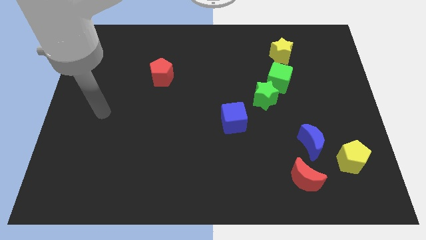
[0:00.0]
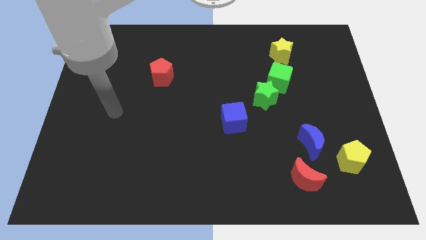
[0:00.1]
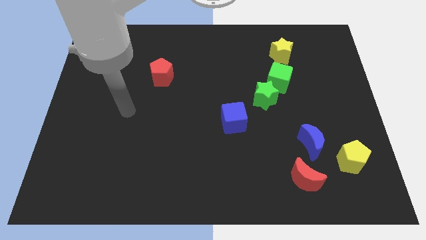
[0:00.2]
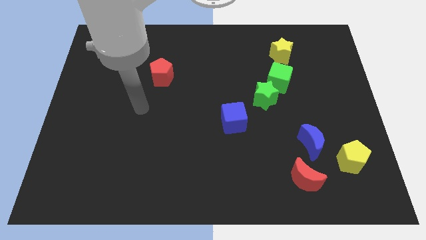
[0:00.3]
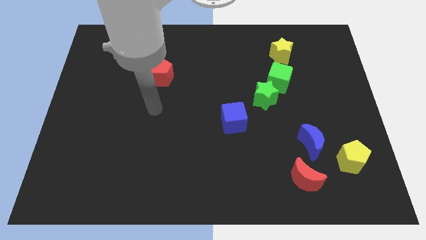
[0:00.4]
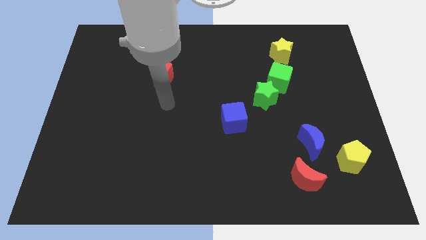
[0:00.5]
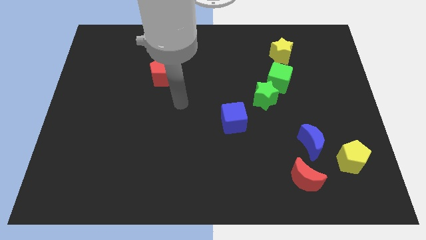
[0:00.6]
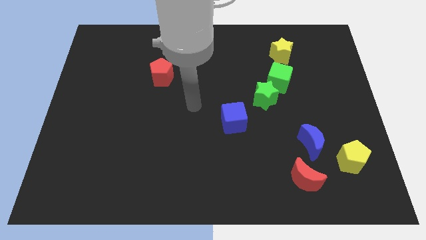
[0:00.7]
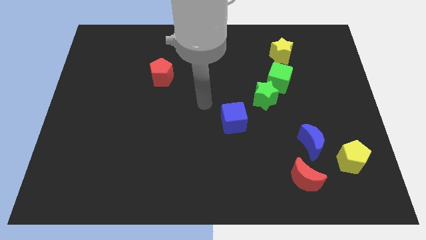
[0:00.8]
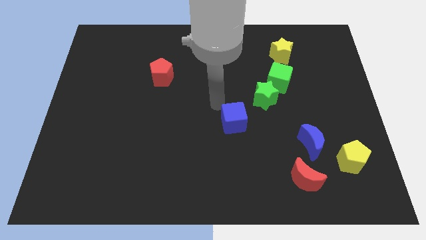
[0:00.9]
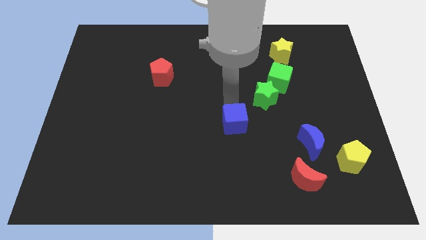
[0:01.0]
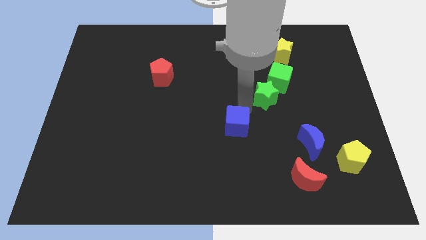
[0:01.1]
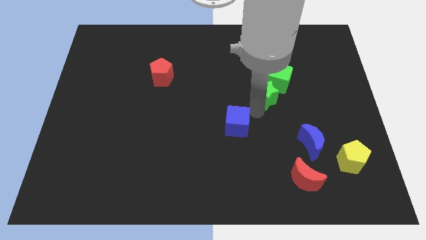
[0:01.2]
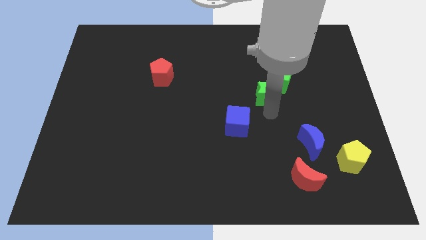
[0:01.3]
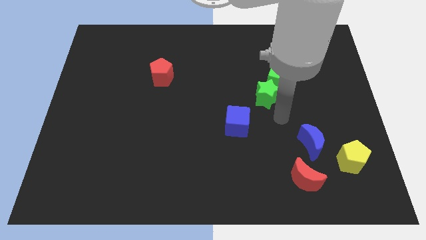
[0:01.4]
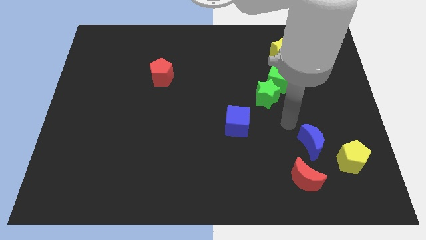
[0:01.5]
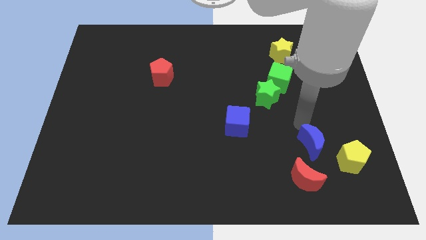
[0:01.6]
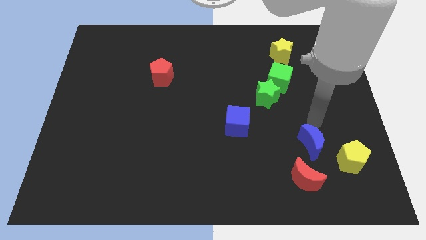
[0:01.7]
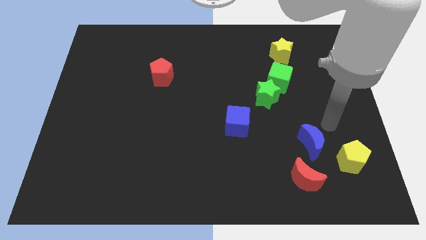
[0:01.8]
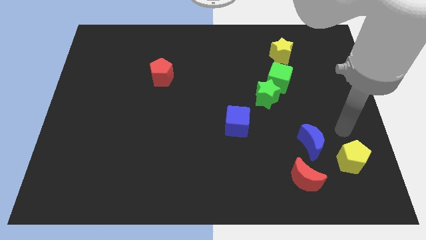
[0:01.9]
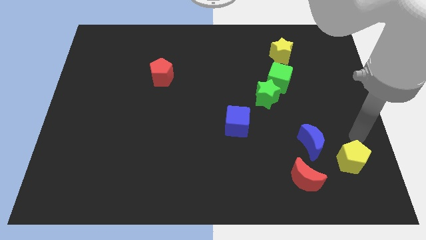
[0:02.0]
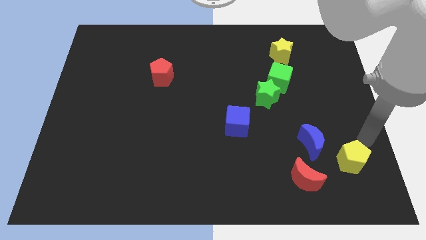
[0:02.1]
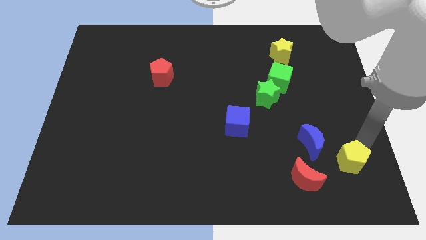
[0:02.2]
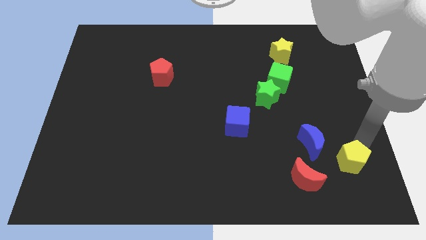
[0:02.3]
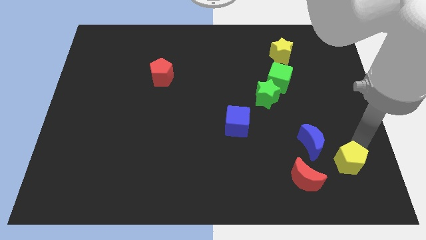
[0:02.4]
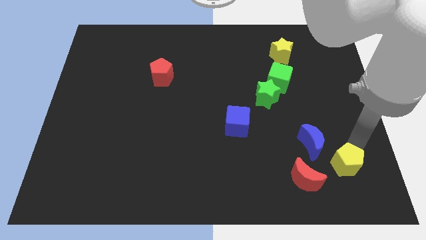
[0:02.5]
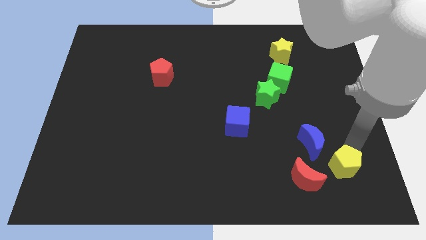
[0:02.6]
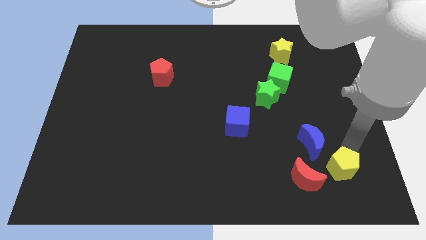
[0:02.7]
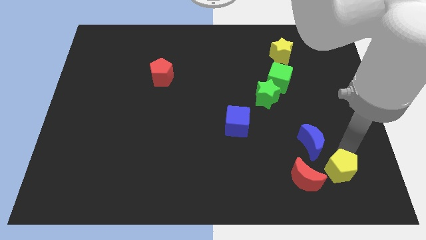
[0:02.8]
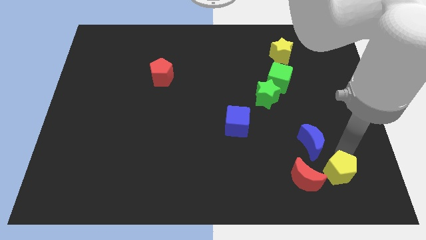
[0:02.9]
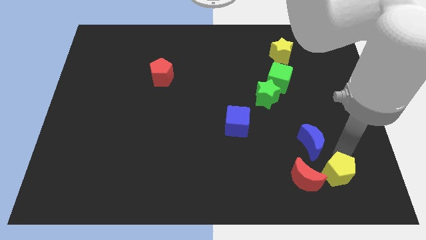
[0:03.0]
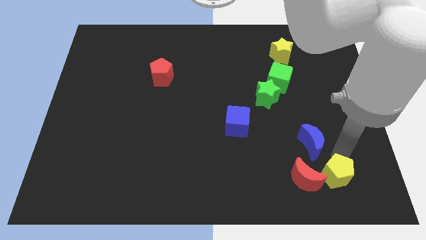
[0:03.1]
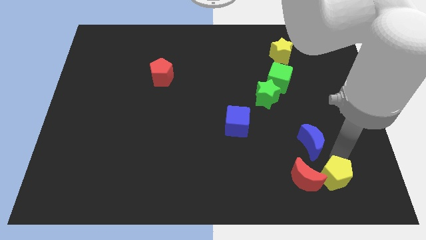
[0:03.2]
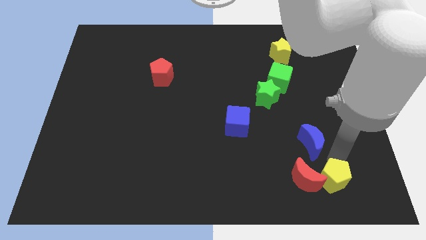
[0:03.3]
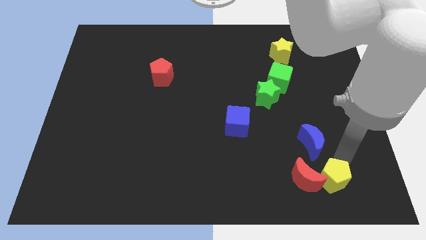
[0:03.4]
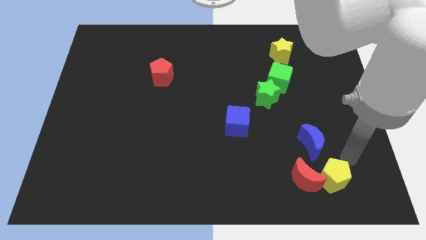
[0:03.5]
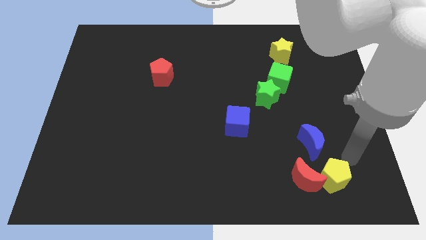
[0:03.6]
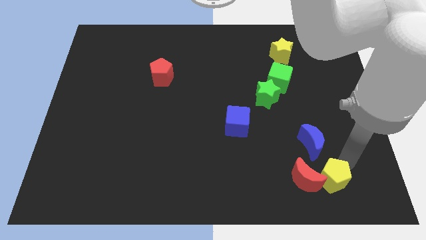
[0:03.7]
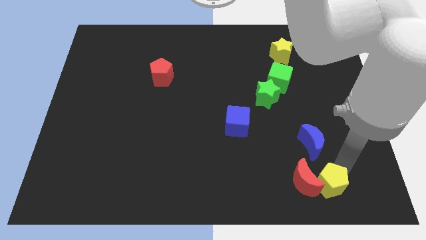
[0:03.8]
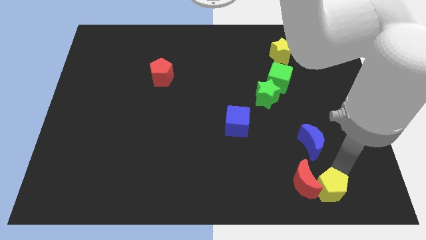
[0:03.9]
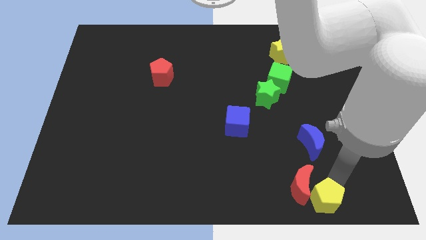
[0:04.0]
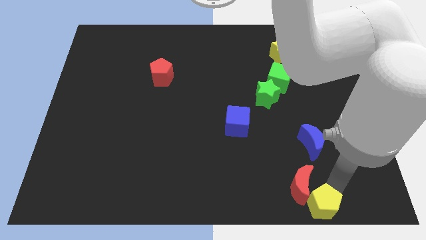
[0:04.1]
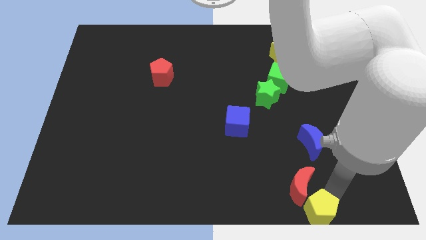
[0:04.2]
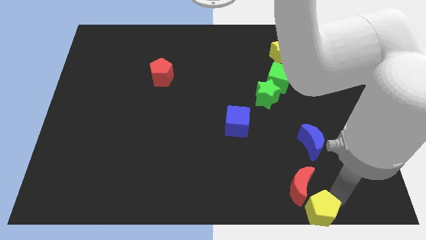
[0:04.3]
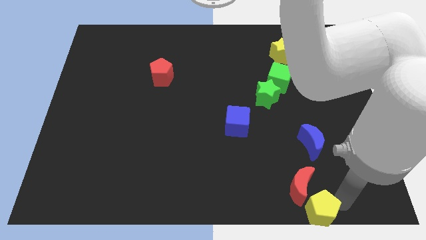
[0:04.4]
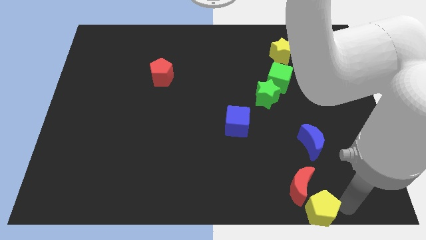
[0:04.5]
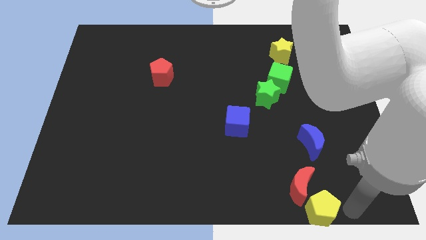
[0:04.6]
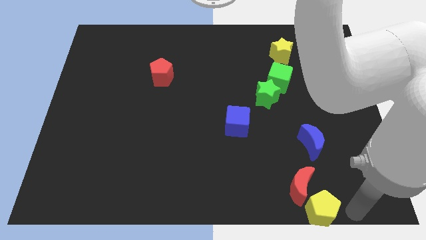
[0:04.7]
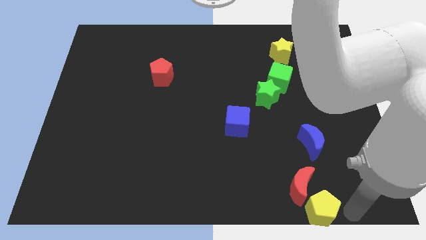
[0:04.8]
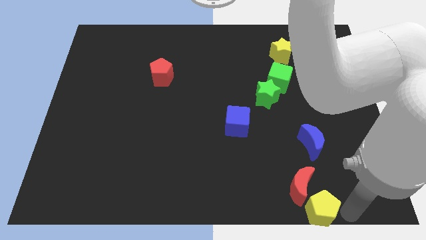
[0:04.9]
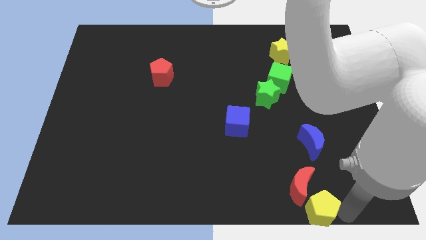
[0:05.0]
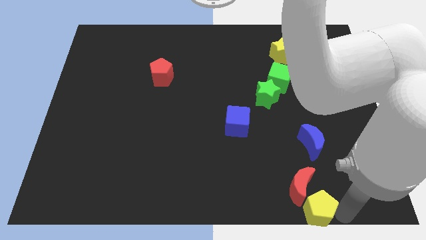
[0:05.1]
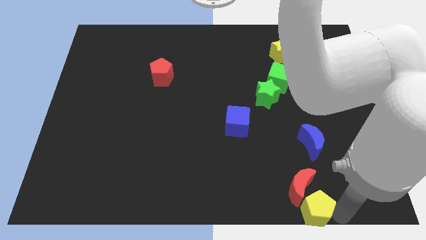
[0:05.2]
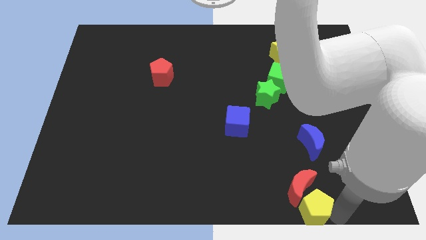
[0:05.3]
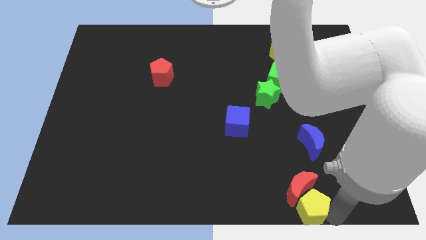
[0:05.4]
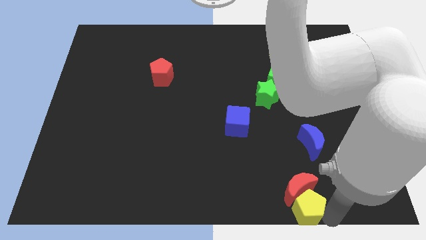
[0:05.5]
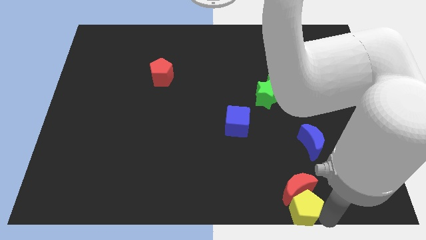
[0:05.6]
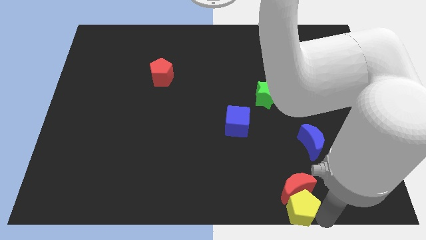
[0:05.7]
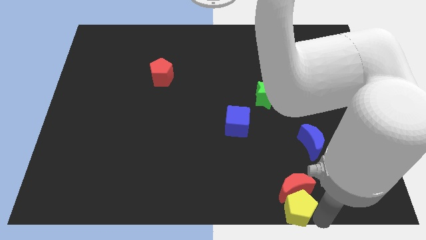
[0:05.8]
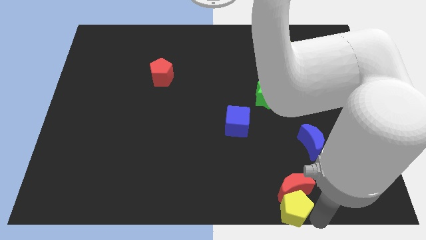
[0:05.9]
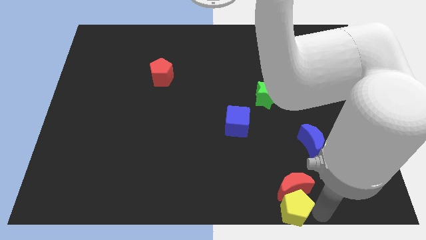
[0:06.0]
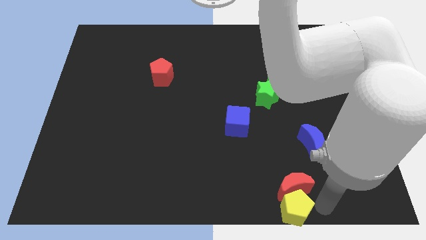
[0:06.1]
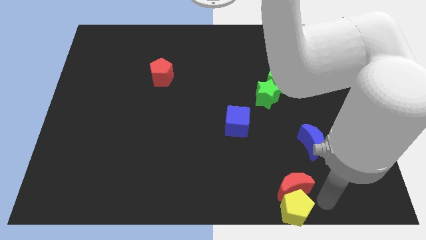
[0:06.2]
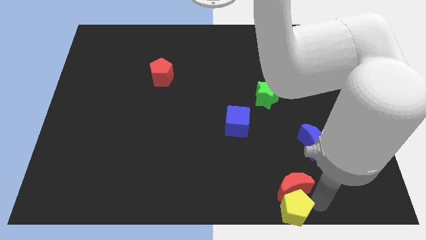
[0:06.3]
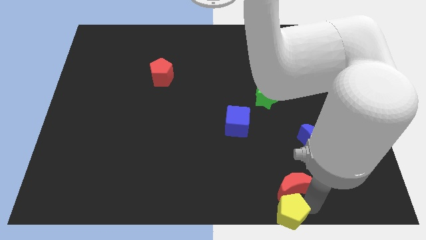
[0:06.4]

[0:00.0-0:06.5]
push the yellow pentagon to the bottom side
